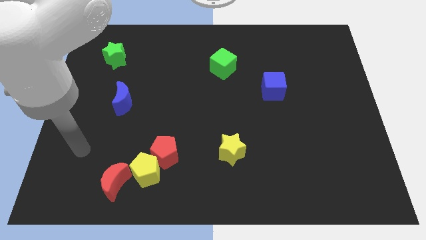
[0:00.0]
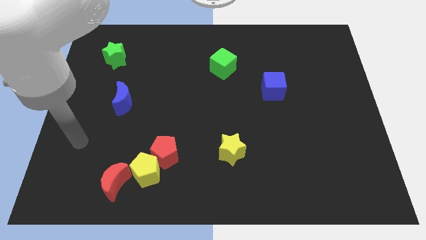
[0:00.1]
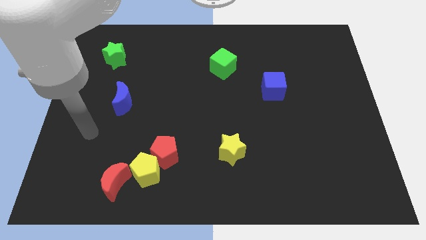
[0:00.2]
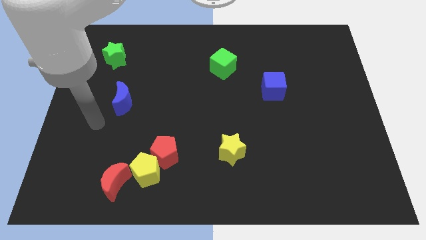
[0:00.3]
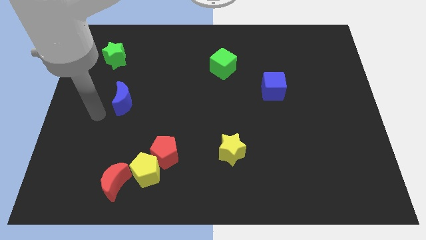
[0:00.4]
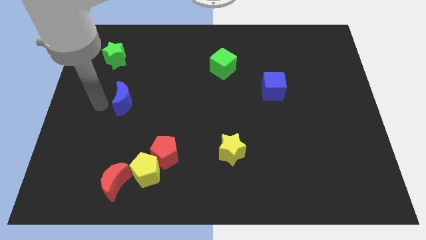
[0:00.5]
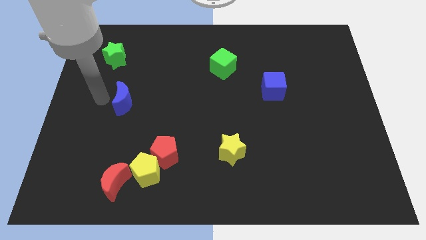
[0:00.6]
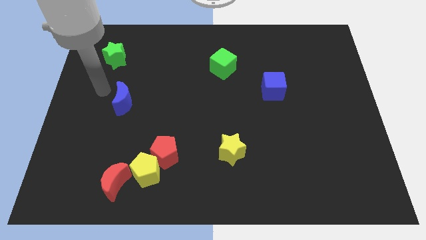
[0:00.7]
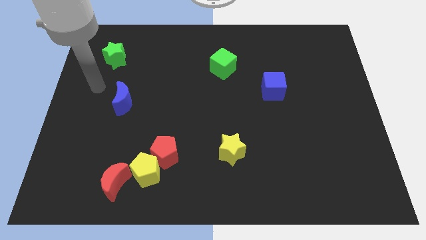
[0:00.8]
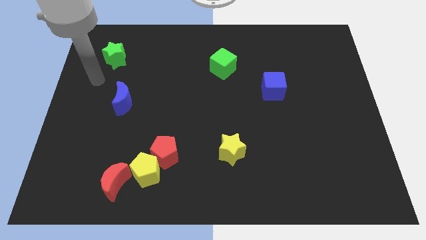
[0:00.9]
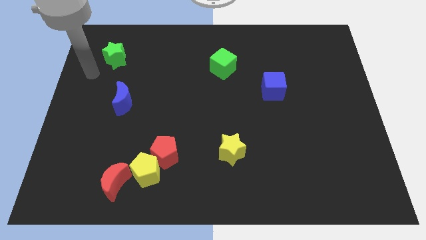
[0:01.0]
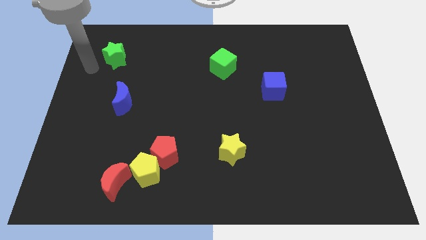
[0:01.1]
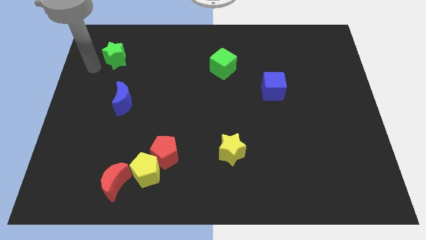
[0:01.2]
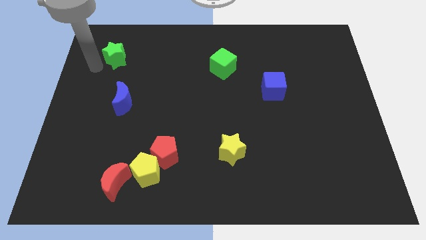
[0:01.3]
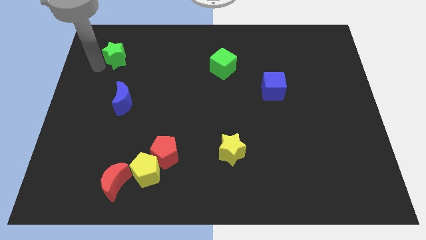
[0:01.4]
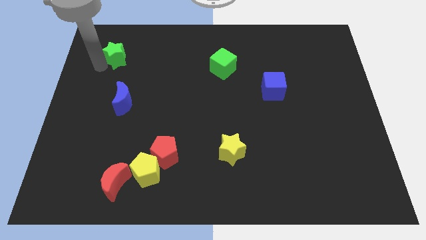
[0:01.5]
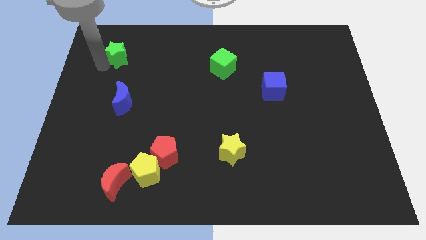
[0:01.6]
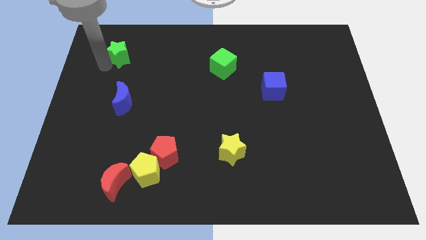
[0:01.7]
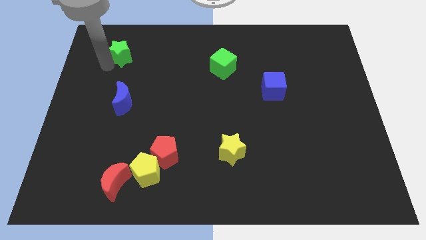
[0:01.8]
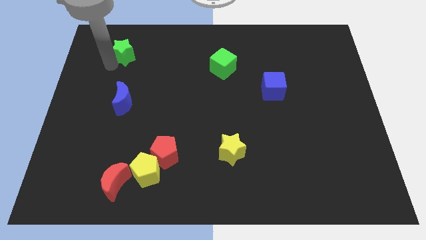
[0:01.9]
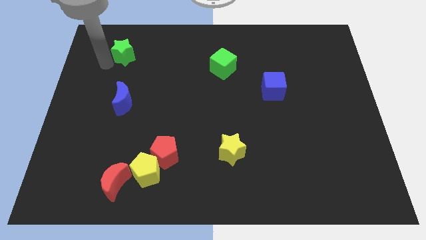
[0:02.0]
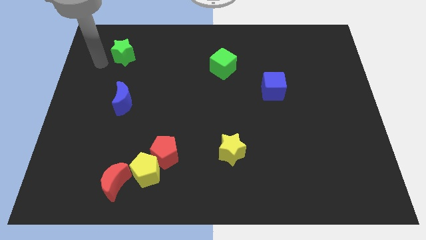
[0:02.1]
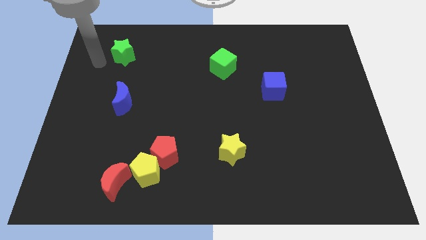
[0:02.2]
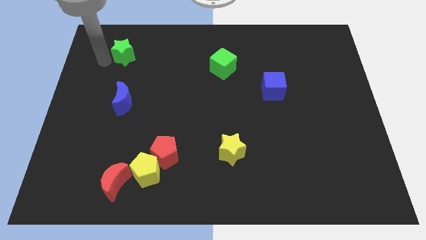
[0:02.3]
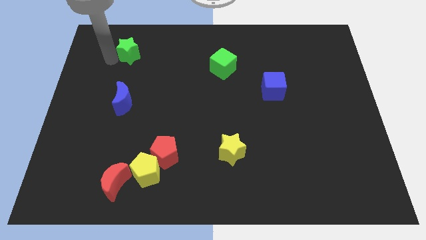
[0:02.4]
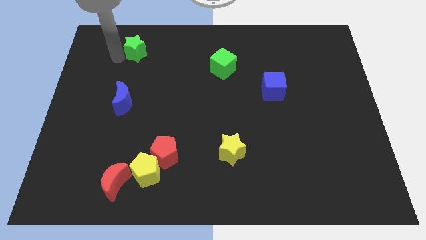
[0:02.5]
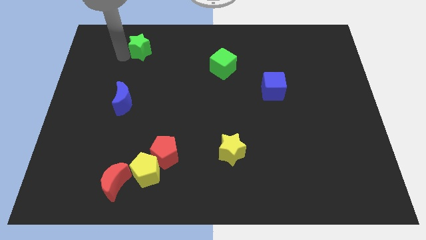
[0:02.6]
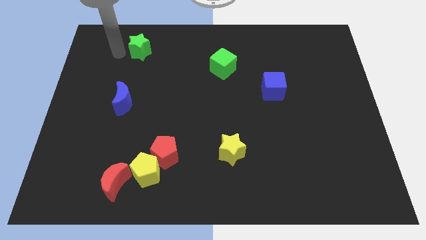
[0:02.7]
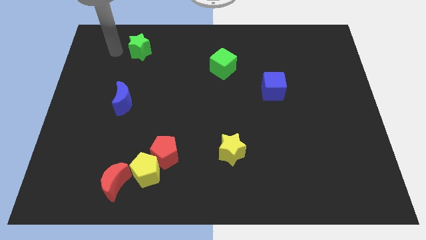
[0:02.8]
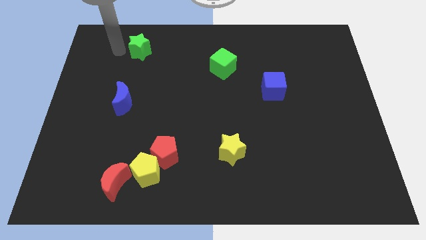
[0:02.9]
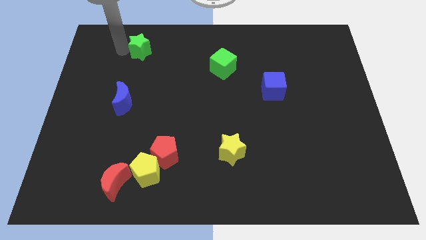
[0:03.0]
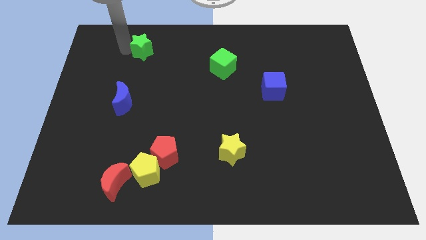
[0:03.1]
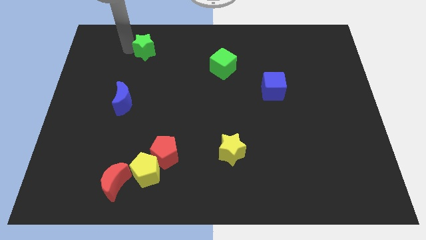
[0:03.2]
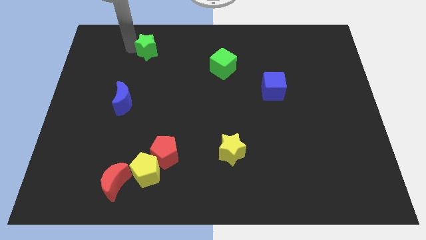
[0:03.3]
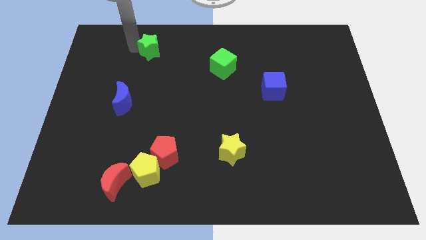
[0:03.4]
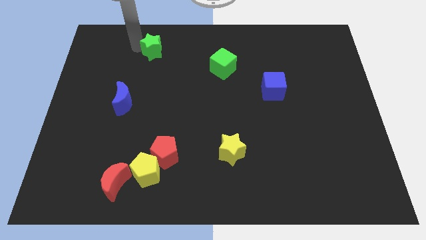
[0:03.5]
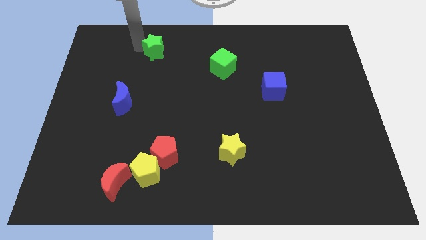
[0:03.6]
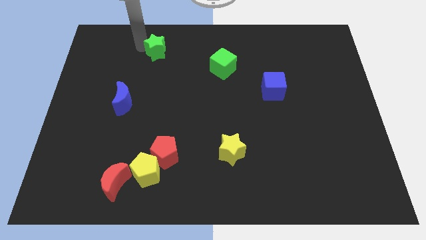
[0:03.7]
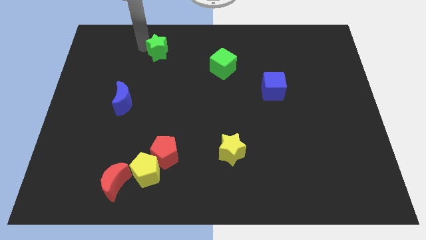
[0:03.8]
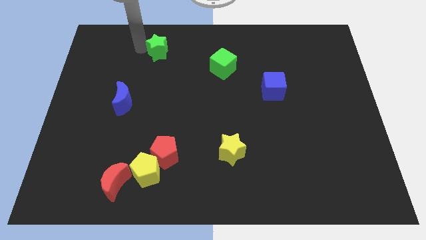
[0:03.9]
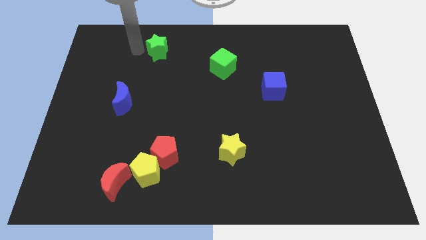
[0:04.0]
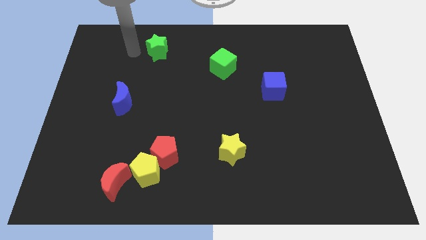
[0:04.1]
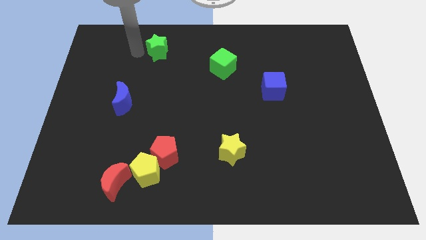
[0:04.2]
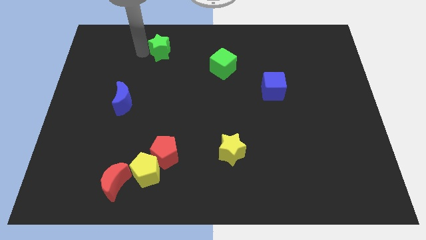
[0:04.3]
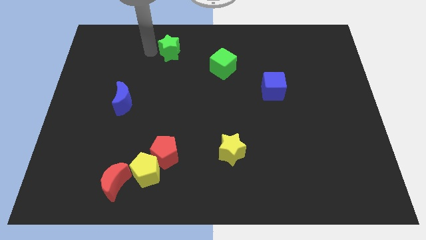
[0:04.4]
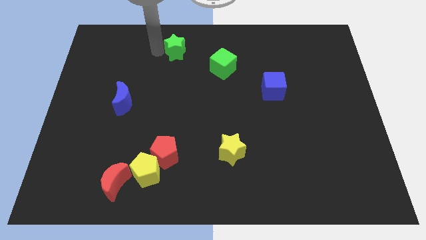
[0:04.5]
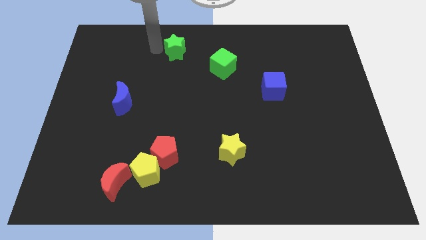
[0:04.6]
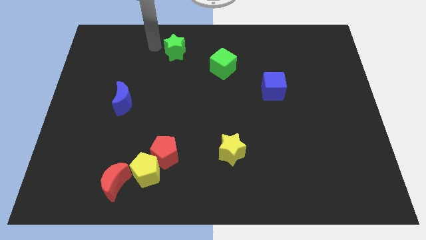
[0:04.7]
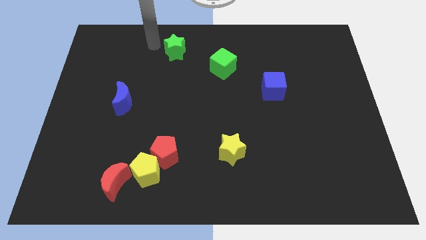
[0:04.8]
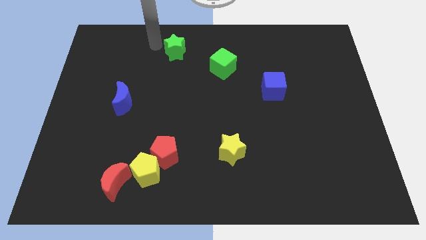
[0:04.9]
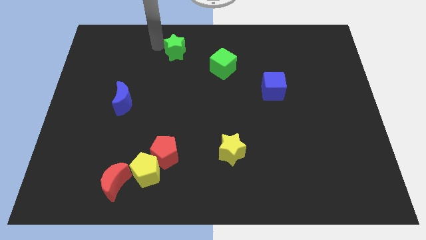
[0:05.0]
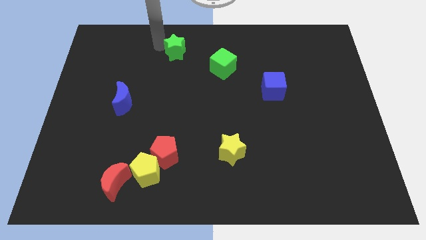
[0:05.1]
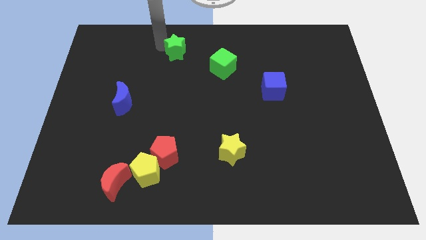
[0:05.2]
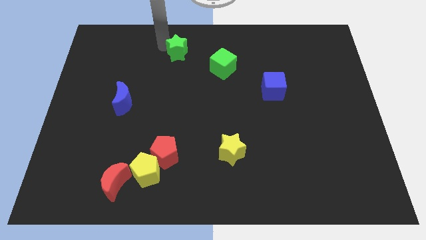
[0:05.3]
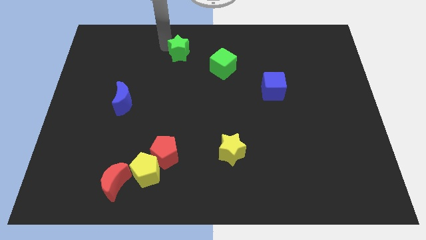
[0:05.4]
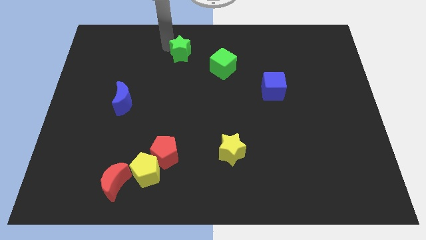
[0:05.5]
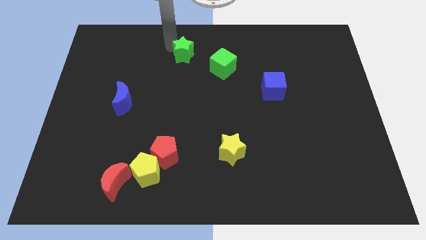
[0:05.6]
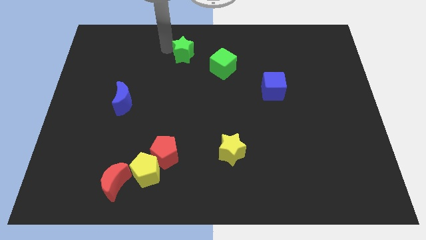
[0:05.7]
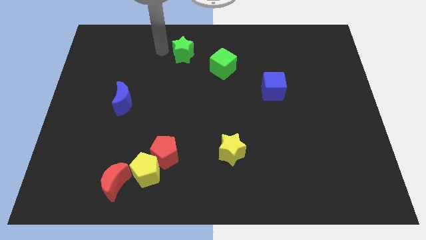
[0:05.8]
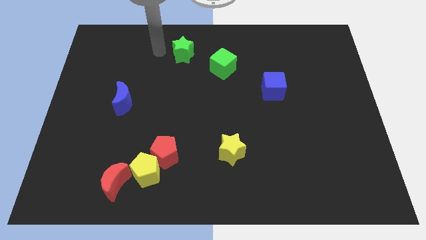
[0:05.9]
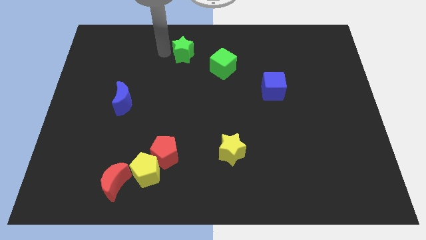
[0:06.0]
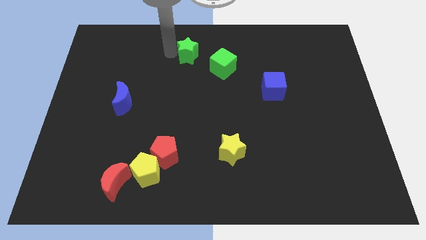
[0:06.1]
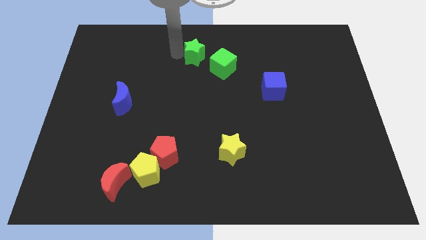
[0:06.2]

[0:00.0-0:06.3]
slide the green star to the right
